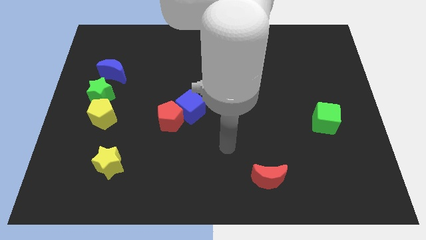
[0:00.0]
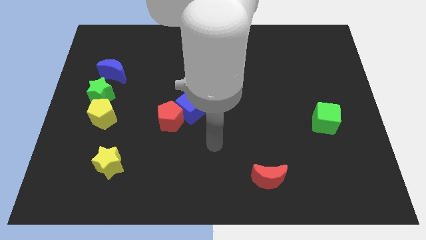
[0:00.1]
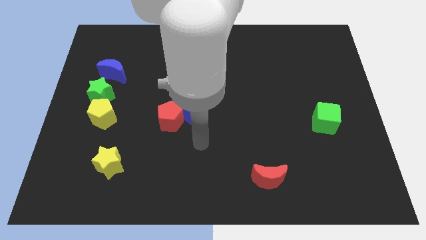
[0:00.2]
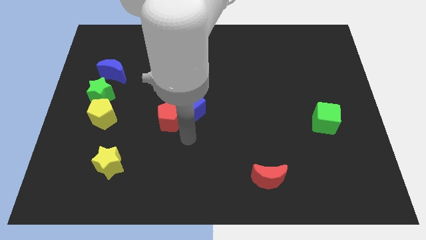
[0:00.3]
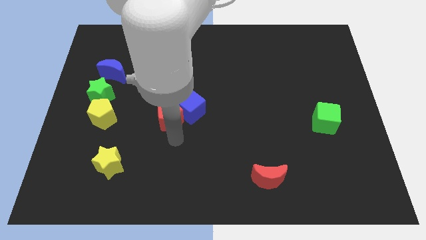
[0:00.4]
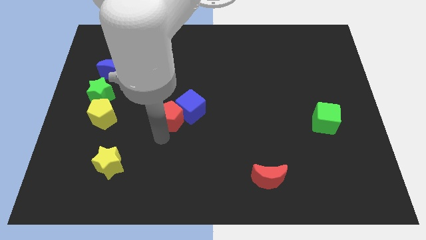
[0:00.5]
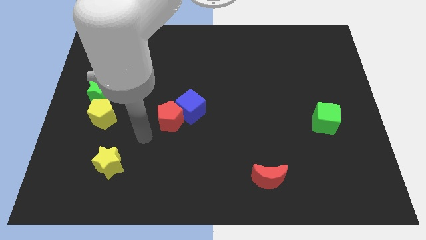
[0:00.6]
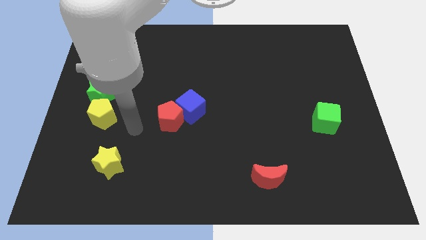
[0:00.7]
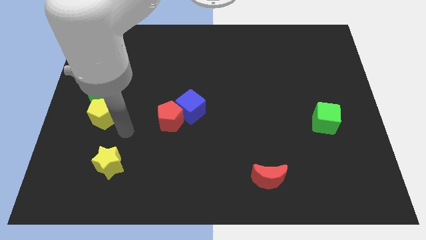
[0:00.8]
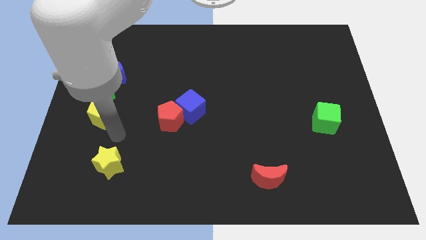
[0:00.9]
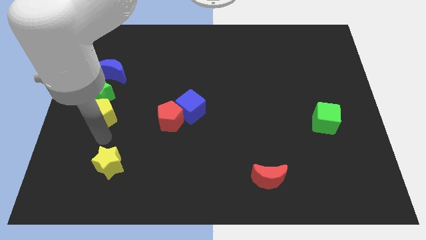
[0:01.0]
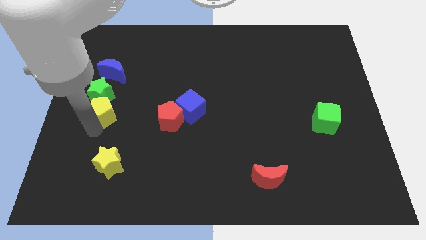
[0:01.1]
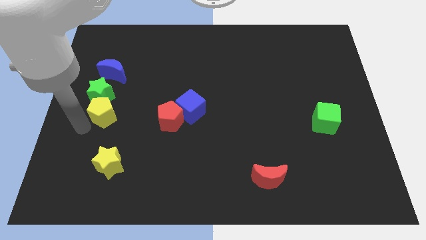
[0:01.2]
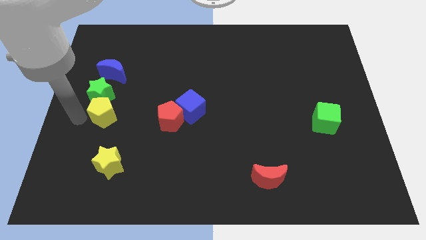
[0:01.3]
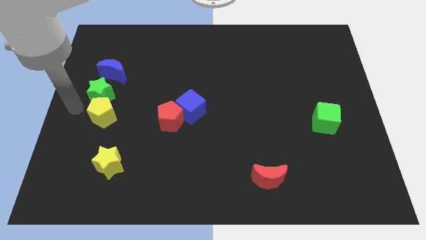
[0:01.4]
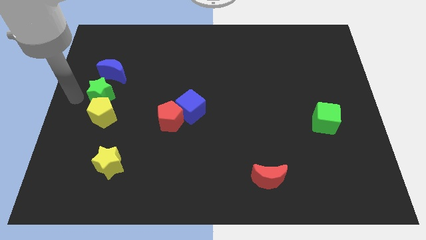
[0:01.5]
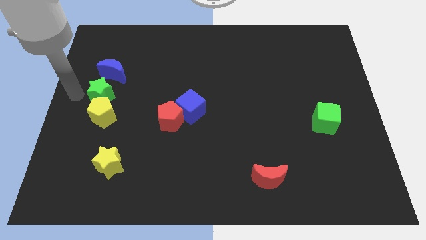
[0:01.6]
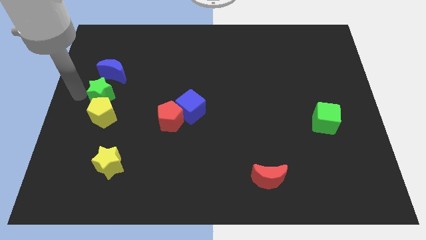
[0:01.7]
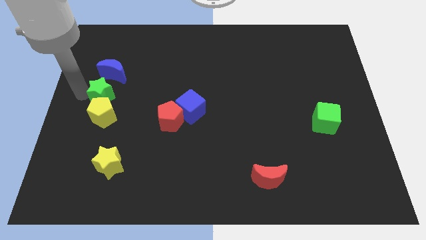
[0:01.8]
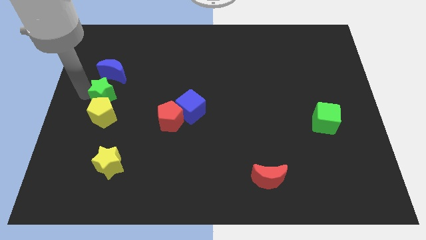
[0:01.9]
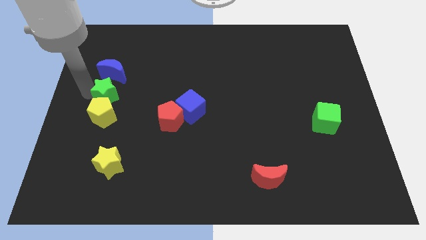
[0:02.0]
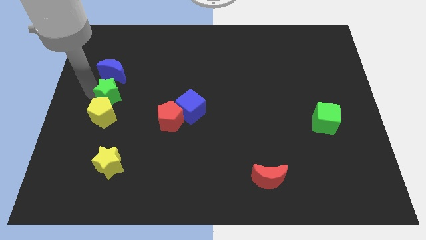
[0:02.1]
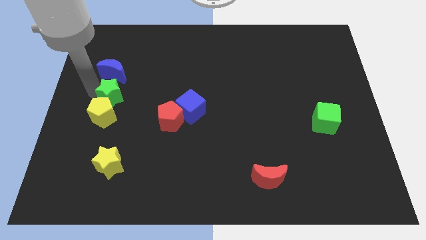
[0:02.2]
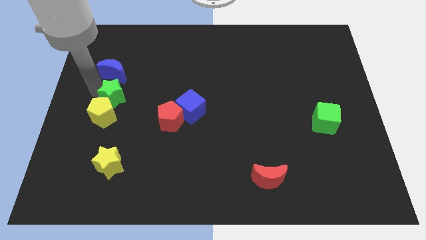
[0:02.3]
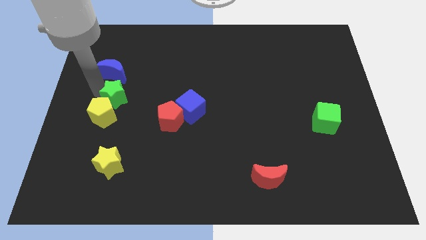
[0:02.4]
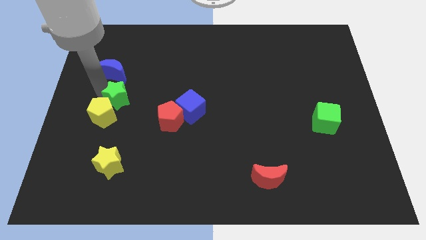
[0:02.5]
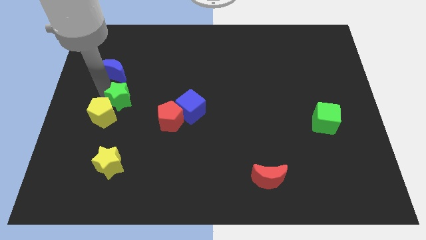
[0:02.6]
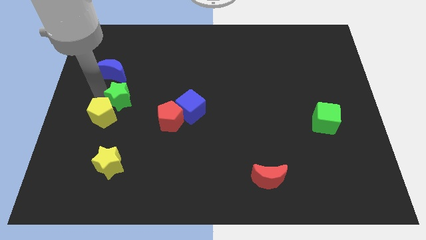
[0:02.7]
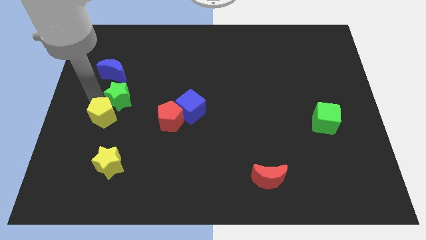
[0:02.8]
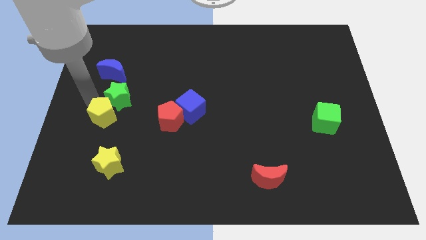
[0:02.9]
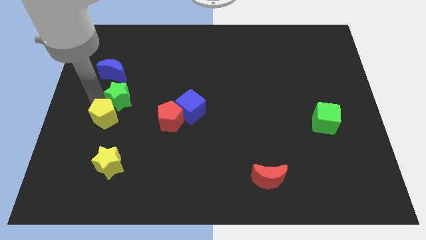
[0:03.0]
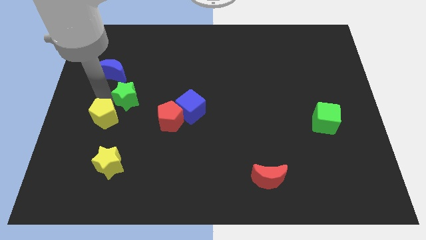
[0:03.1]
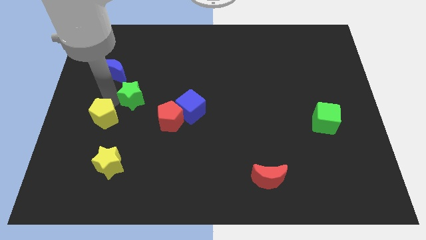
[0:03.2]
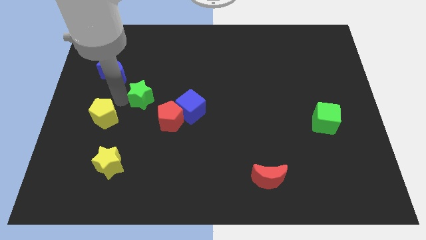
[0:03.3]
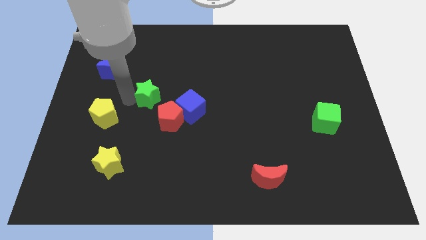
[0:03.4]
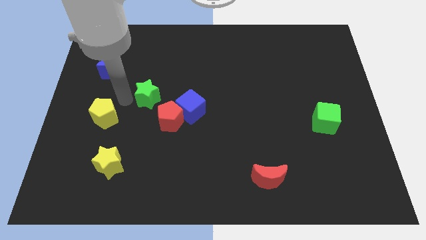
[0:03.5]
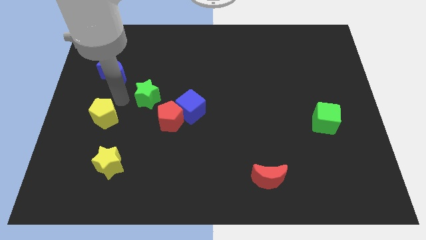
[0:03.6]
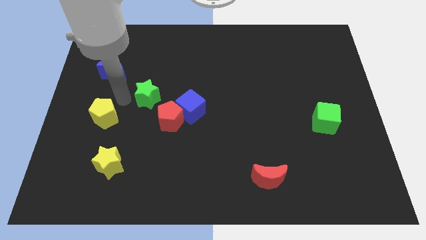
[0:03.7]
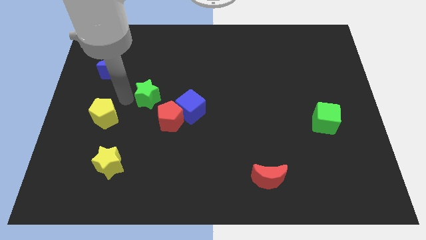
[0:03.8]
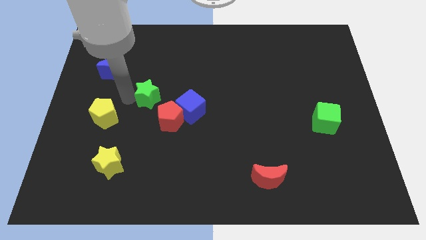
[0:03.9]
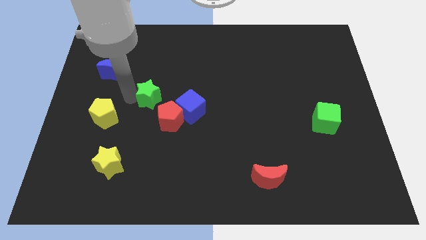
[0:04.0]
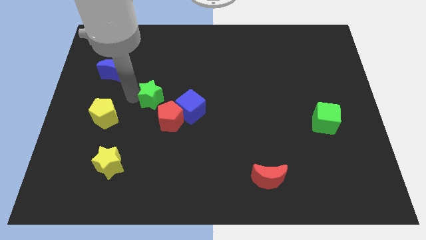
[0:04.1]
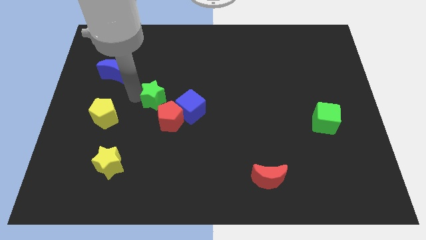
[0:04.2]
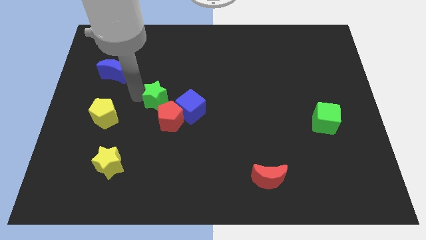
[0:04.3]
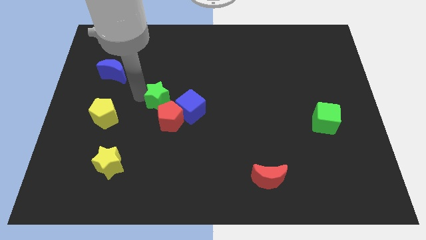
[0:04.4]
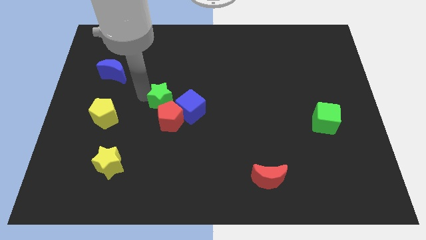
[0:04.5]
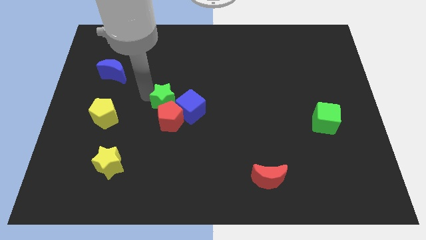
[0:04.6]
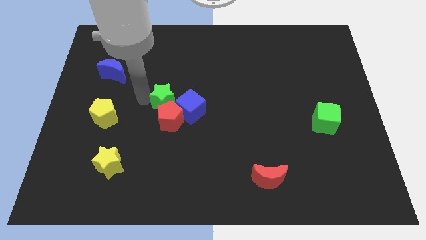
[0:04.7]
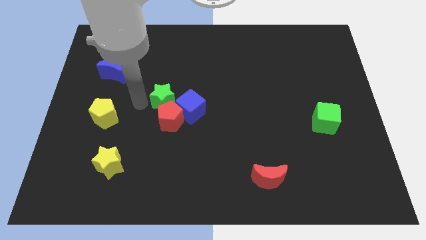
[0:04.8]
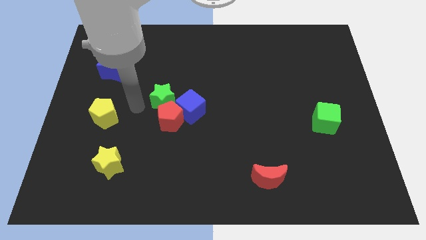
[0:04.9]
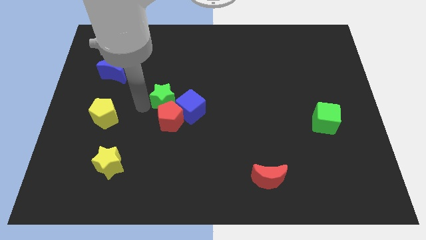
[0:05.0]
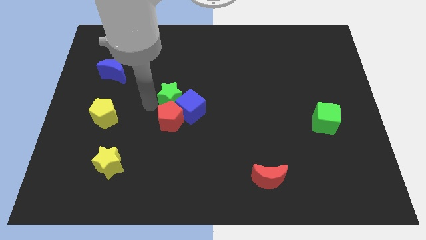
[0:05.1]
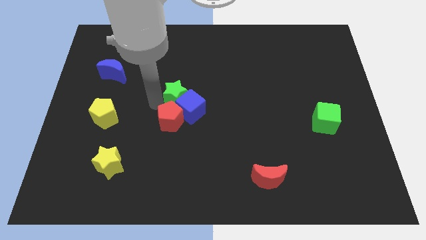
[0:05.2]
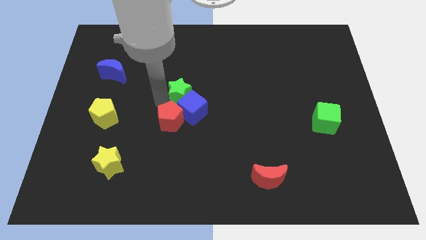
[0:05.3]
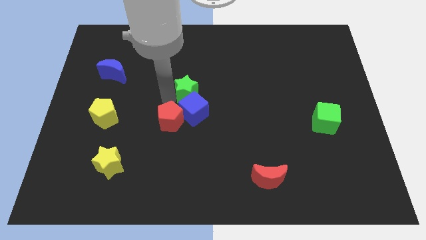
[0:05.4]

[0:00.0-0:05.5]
move the green star to the right

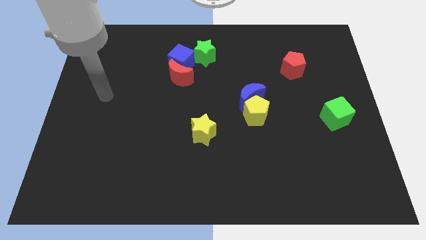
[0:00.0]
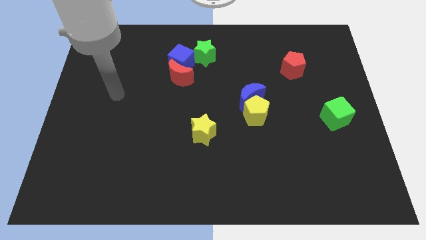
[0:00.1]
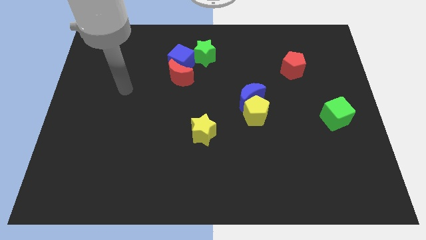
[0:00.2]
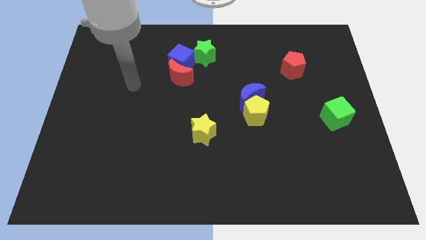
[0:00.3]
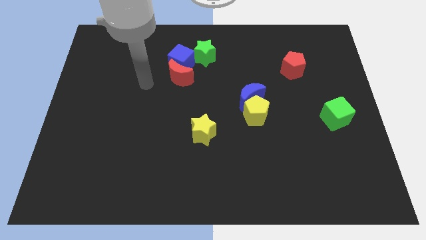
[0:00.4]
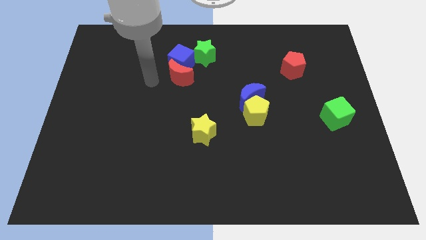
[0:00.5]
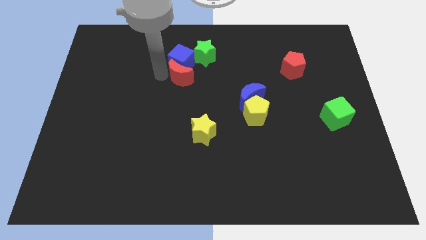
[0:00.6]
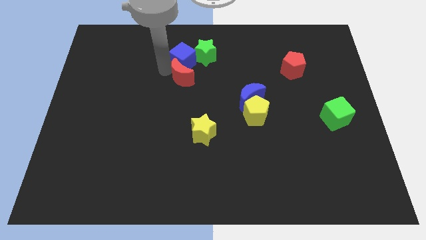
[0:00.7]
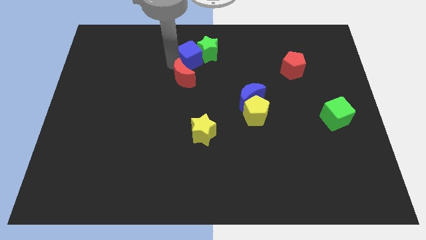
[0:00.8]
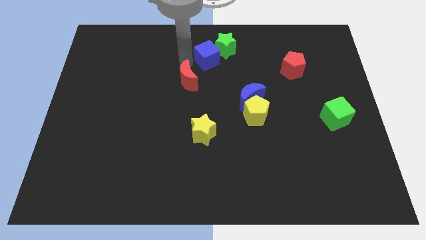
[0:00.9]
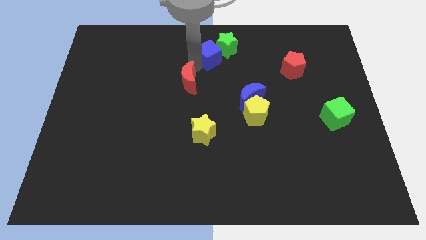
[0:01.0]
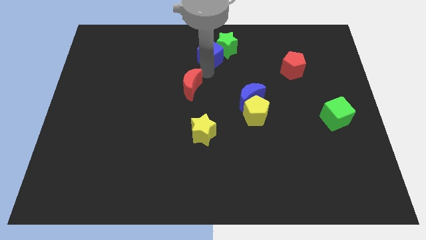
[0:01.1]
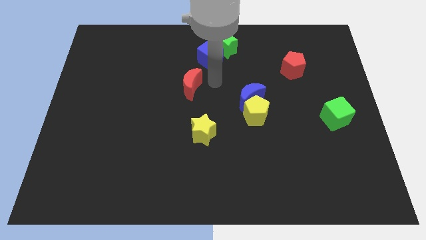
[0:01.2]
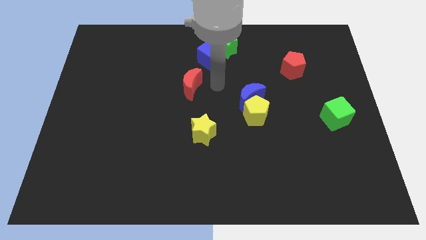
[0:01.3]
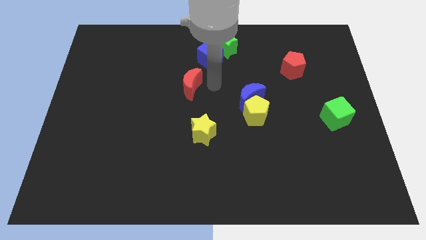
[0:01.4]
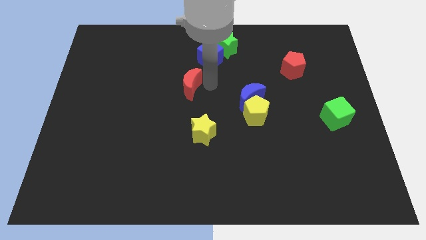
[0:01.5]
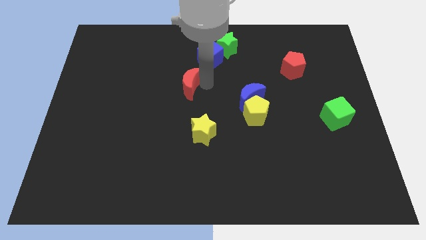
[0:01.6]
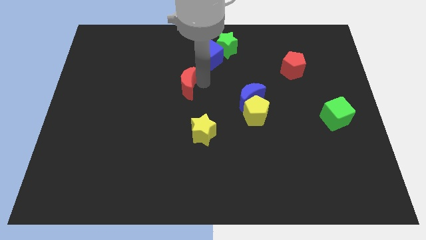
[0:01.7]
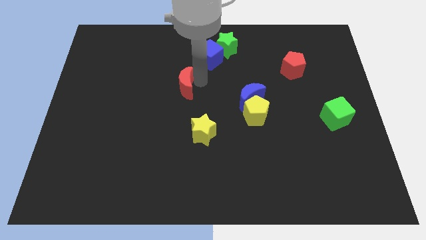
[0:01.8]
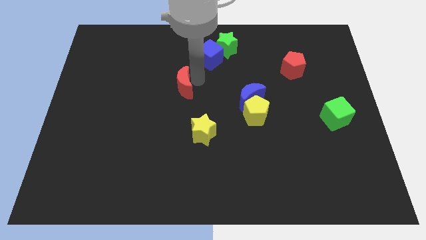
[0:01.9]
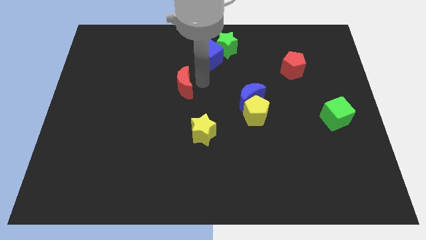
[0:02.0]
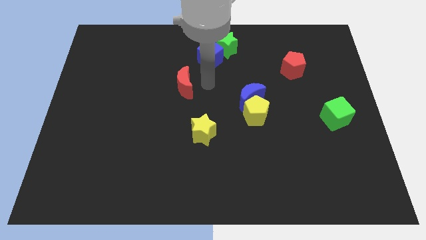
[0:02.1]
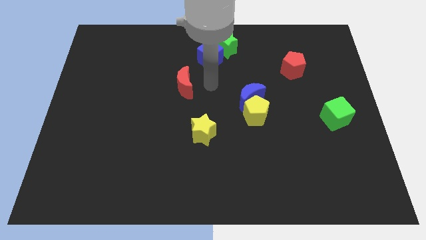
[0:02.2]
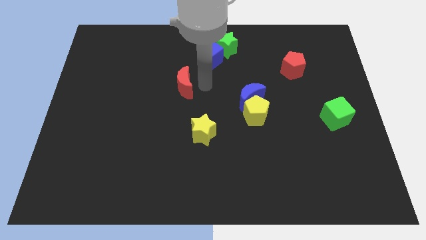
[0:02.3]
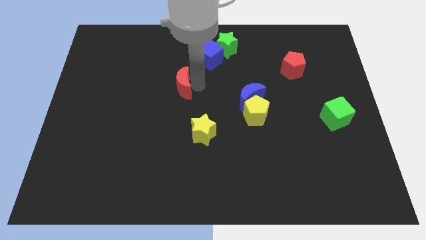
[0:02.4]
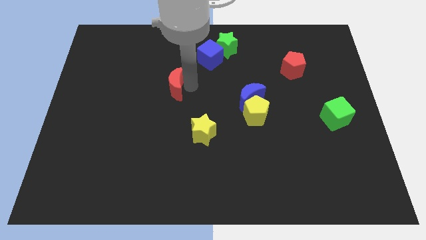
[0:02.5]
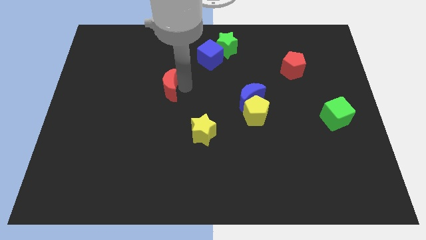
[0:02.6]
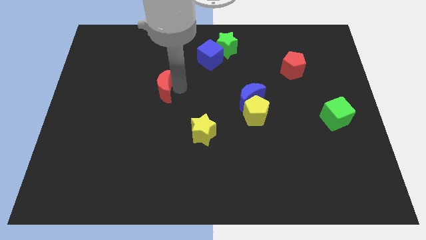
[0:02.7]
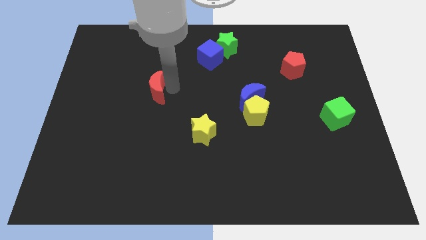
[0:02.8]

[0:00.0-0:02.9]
slide the red moon a little bit diagonally downwards and left
